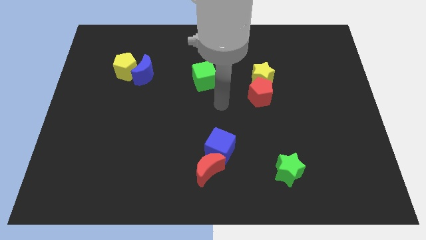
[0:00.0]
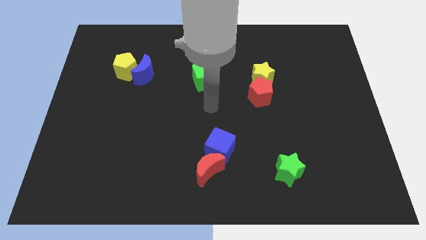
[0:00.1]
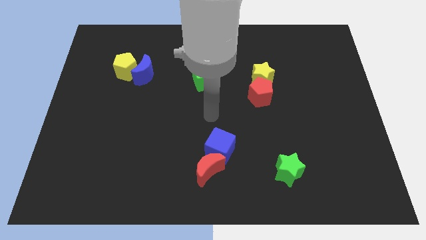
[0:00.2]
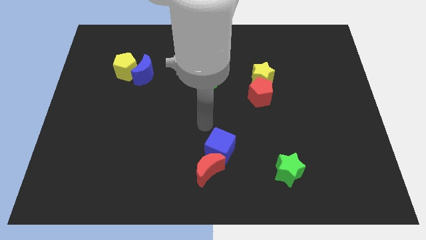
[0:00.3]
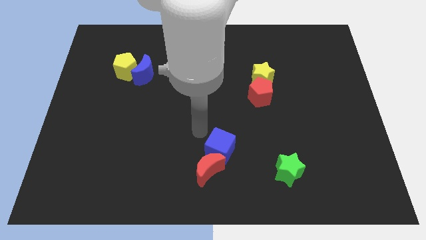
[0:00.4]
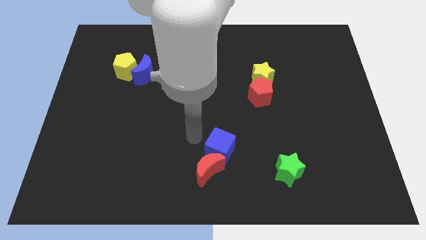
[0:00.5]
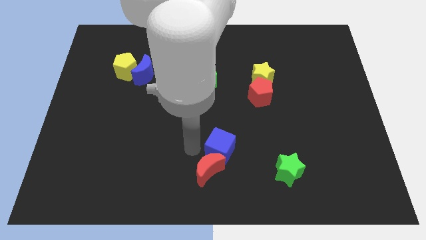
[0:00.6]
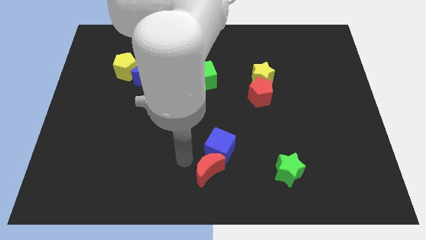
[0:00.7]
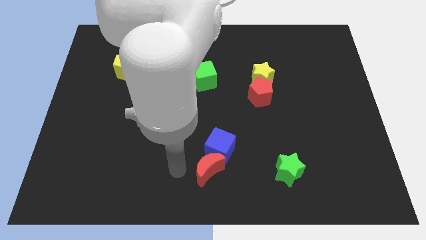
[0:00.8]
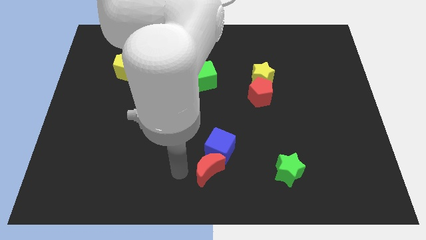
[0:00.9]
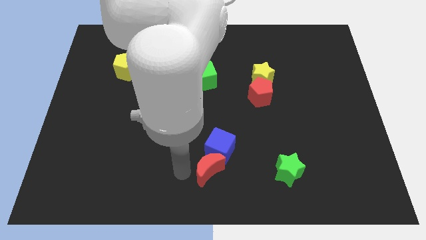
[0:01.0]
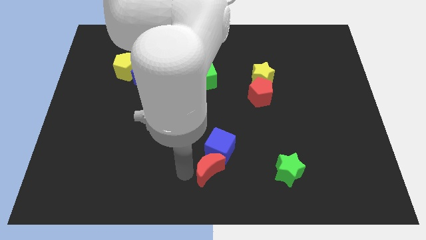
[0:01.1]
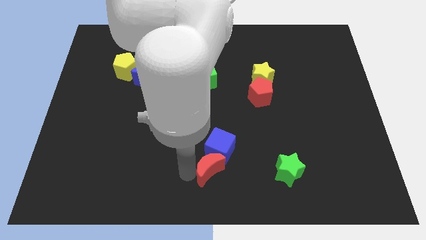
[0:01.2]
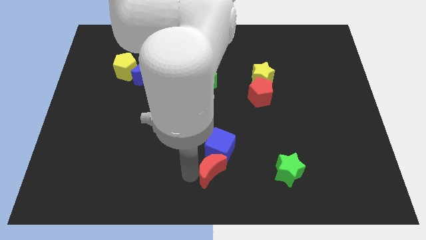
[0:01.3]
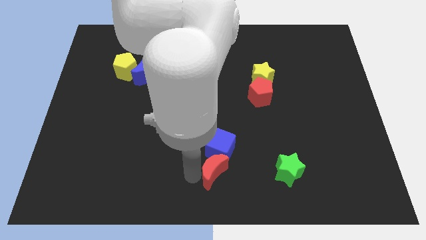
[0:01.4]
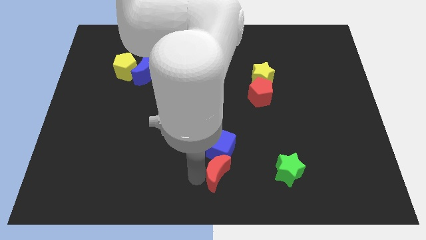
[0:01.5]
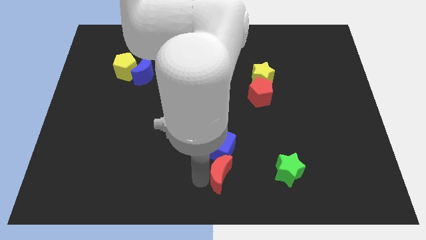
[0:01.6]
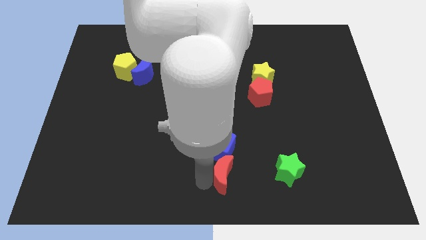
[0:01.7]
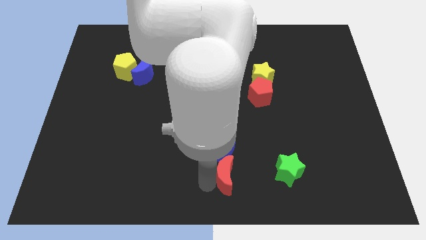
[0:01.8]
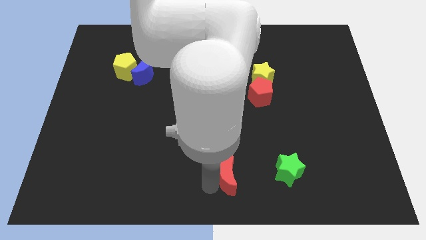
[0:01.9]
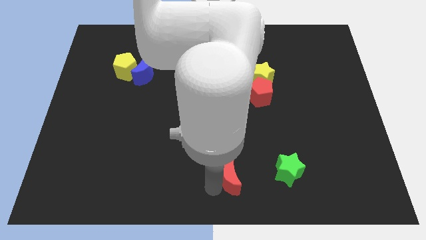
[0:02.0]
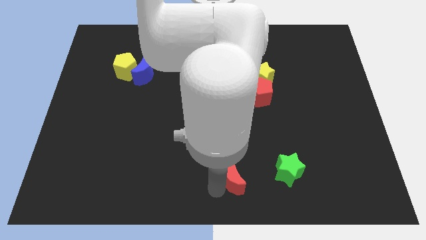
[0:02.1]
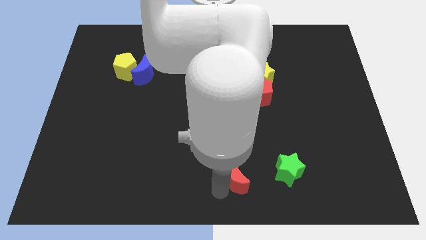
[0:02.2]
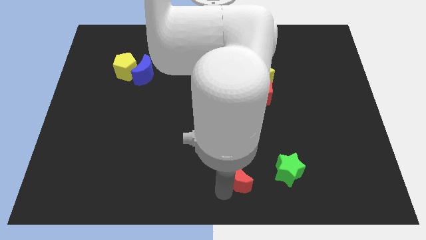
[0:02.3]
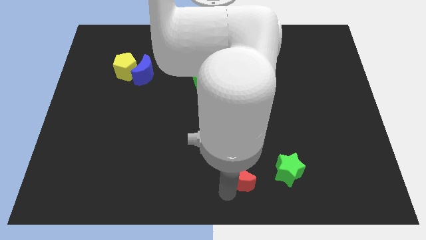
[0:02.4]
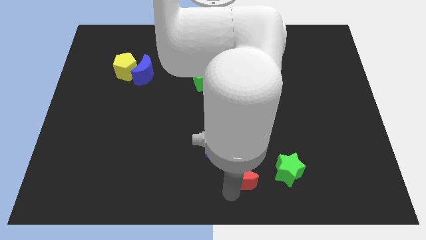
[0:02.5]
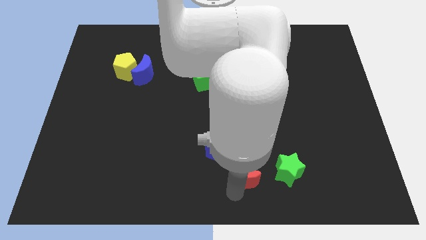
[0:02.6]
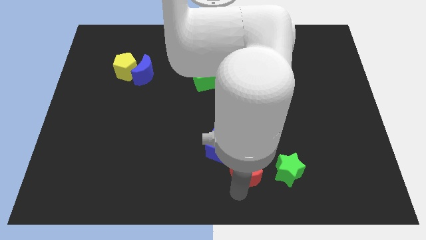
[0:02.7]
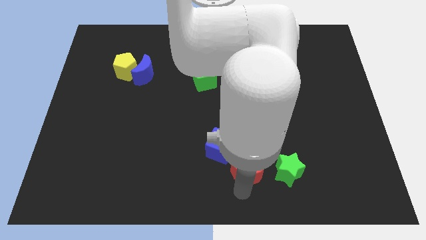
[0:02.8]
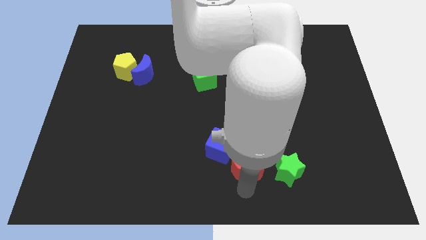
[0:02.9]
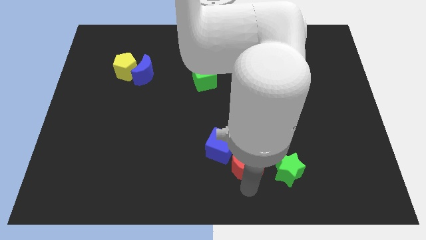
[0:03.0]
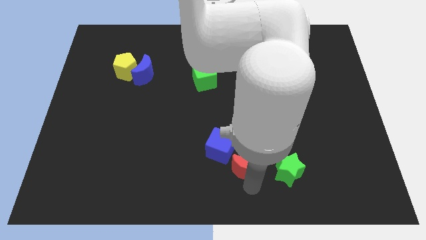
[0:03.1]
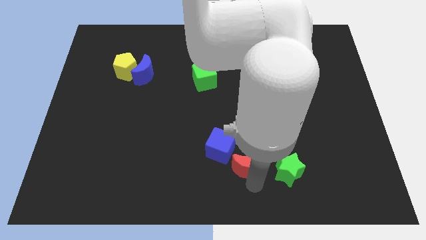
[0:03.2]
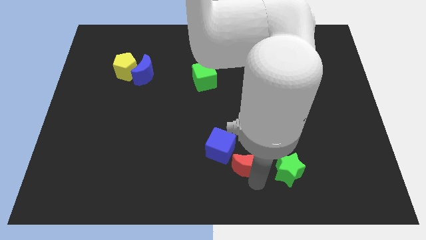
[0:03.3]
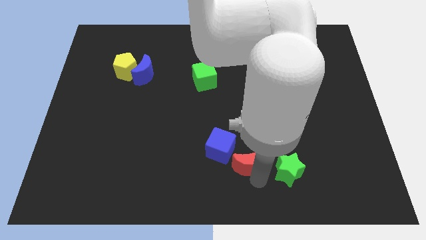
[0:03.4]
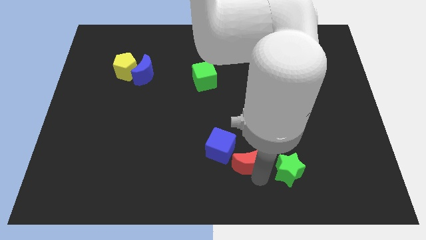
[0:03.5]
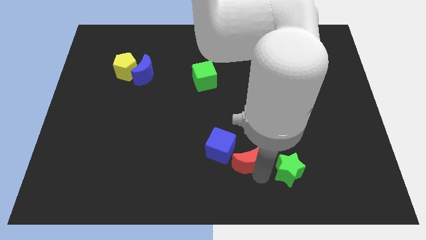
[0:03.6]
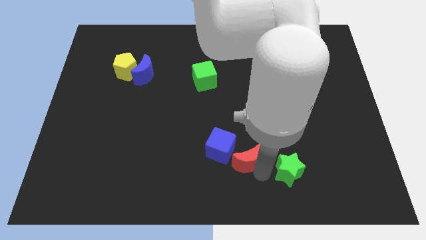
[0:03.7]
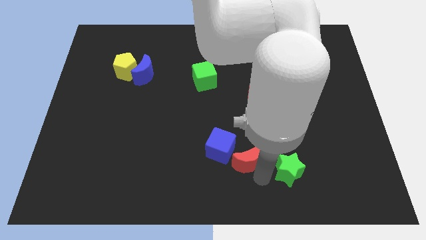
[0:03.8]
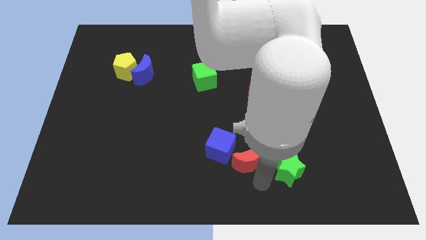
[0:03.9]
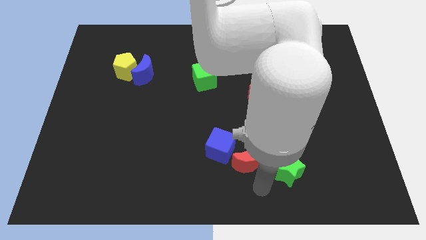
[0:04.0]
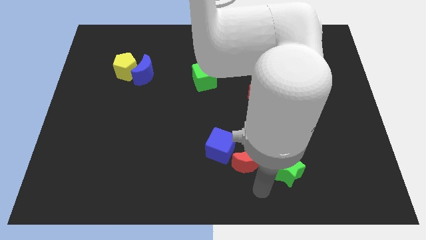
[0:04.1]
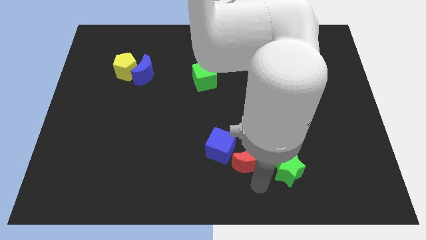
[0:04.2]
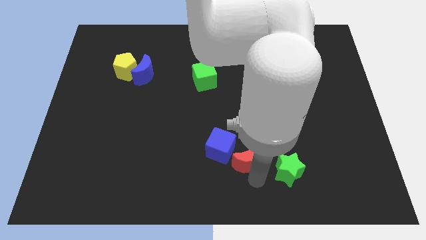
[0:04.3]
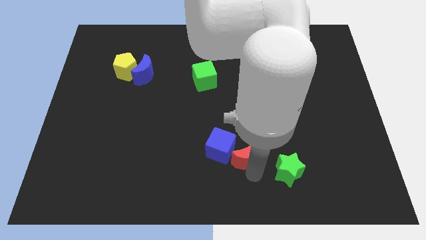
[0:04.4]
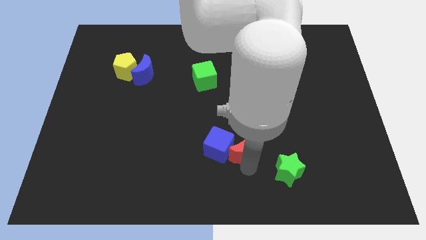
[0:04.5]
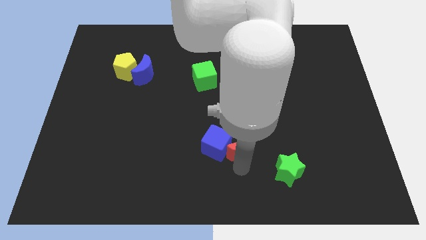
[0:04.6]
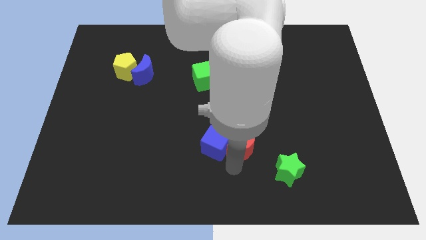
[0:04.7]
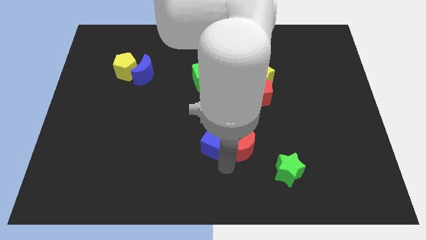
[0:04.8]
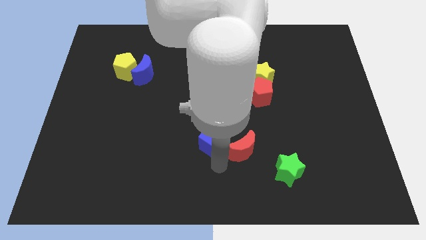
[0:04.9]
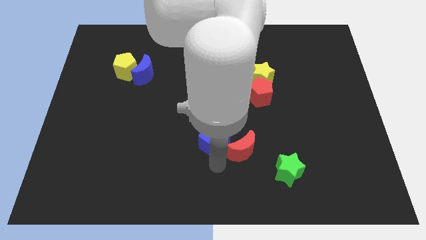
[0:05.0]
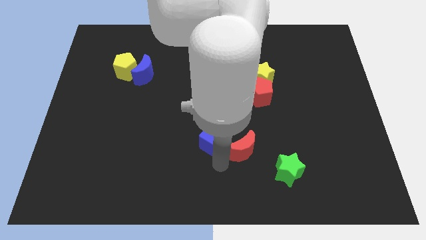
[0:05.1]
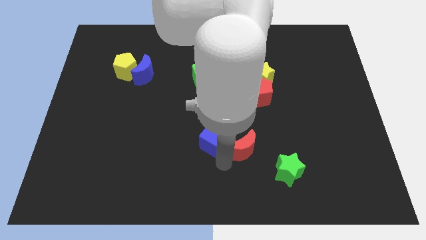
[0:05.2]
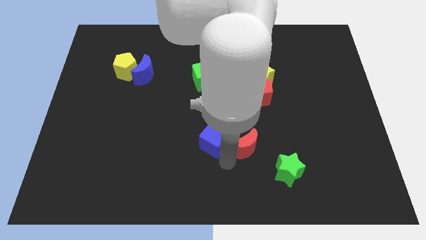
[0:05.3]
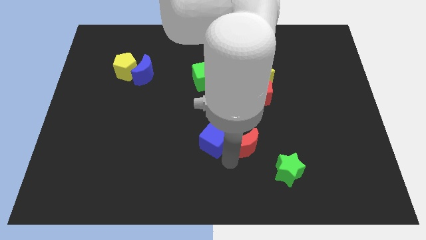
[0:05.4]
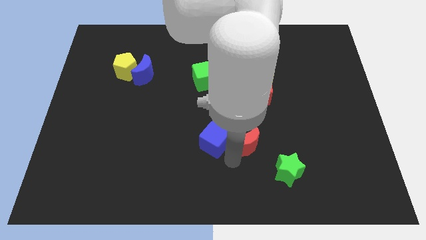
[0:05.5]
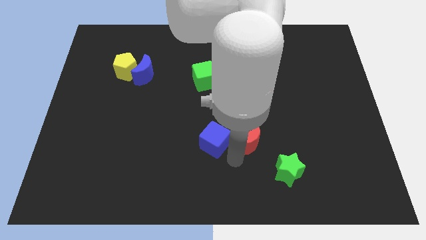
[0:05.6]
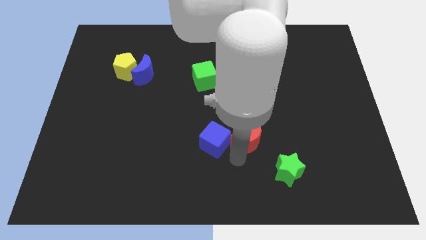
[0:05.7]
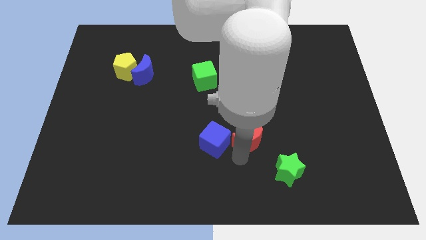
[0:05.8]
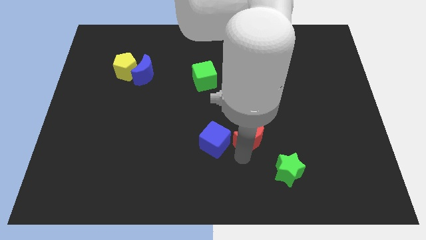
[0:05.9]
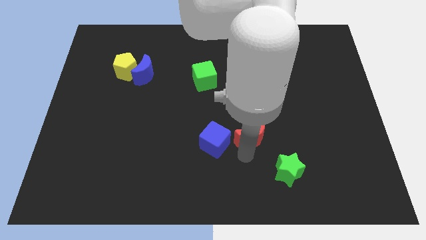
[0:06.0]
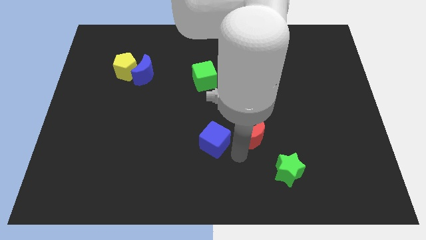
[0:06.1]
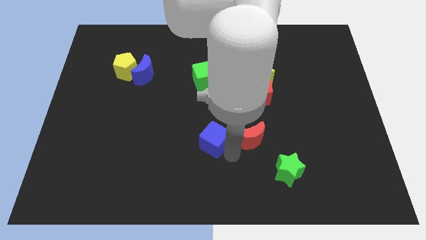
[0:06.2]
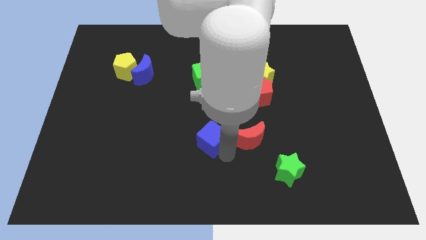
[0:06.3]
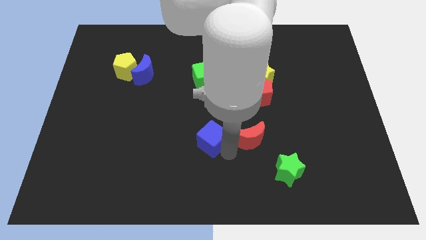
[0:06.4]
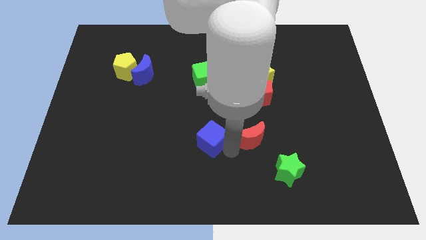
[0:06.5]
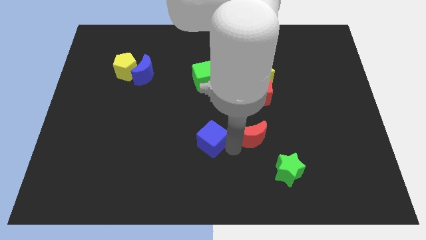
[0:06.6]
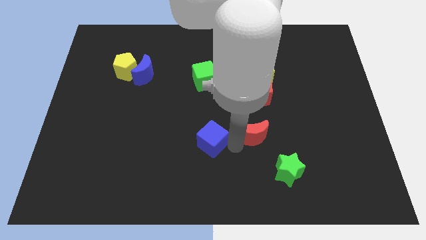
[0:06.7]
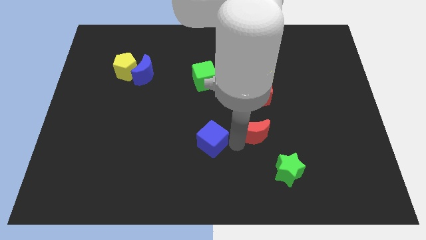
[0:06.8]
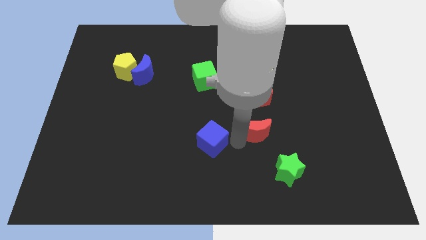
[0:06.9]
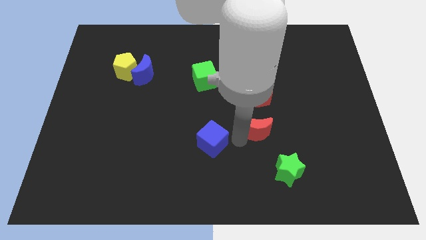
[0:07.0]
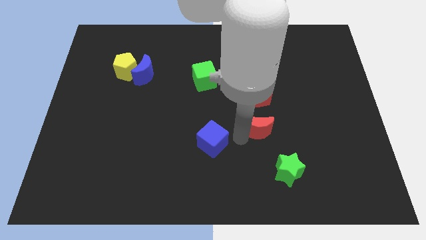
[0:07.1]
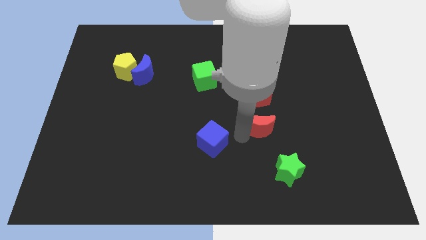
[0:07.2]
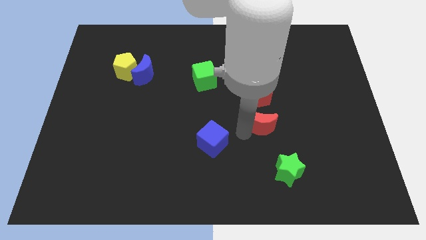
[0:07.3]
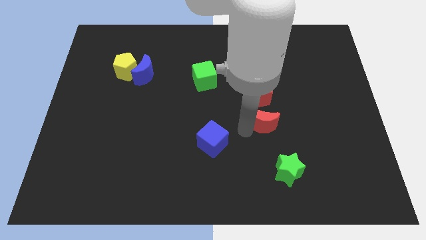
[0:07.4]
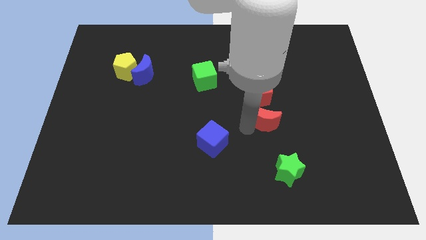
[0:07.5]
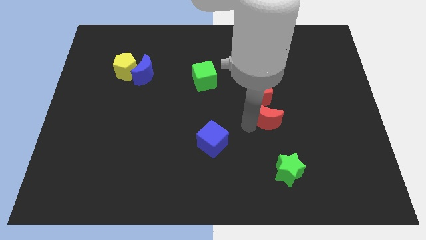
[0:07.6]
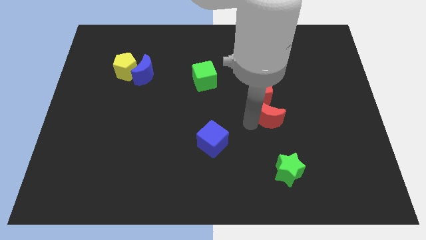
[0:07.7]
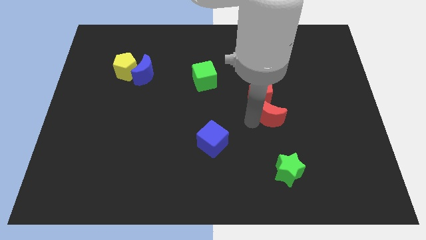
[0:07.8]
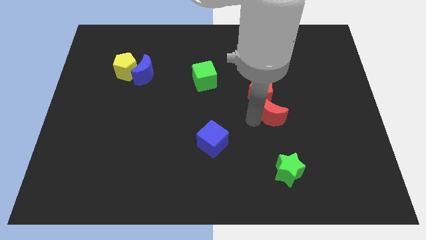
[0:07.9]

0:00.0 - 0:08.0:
slide the red moon upwards and then to the right
